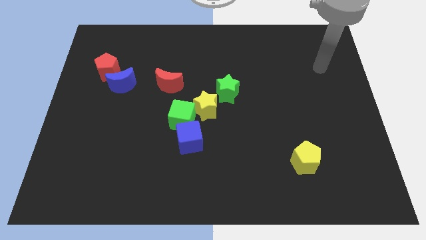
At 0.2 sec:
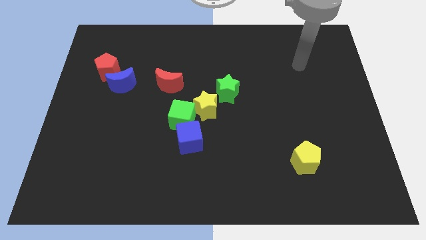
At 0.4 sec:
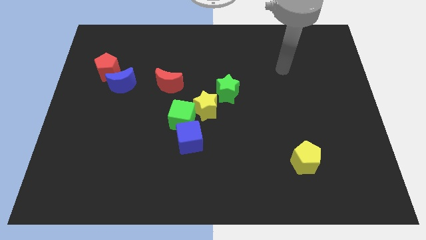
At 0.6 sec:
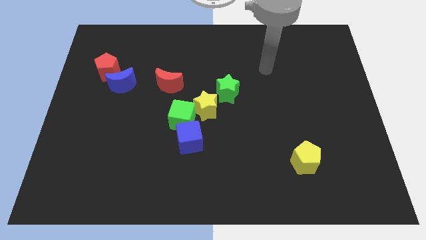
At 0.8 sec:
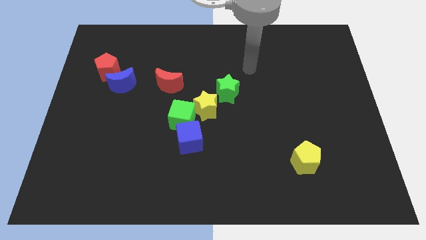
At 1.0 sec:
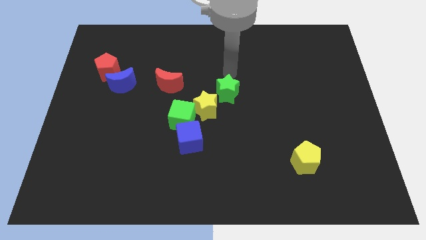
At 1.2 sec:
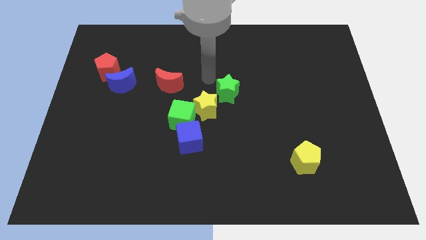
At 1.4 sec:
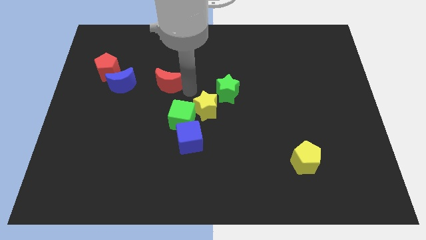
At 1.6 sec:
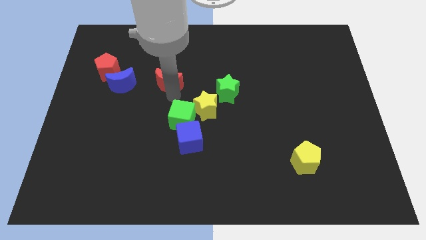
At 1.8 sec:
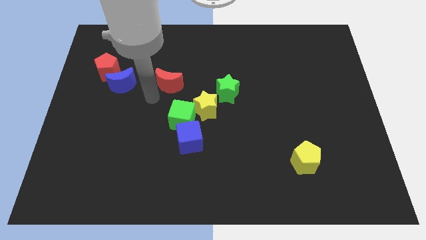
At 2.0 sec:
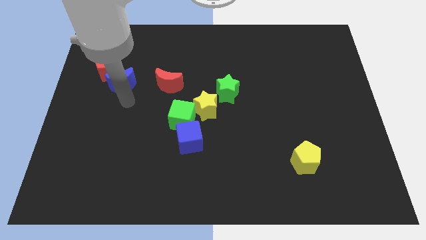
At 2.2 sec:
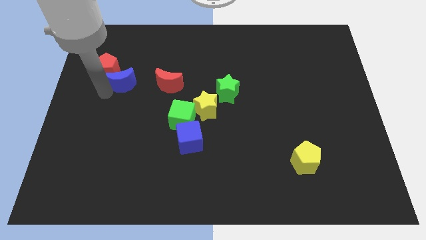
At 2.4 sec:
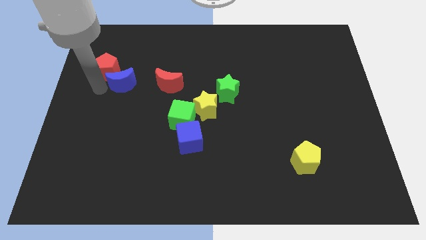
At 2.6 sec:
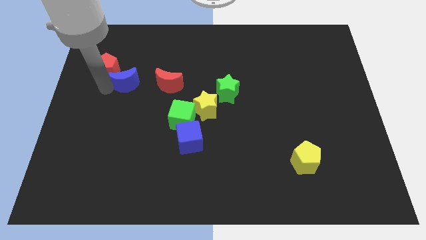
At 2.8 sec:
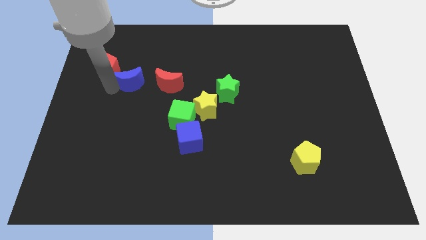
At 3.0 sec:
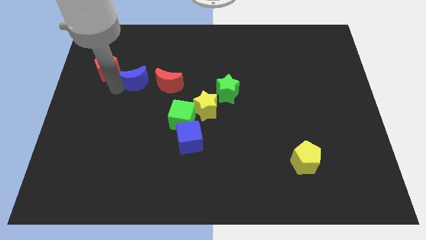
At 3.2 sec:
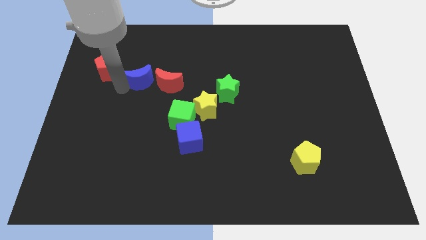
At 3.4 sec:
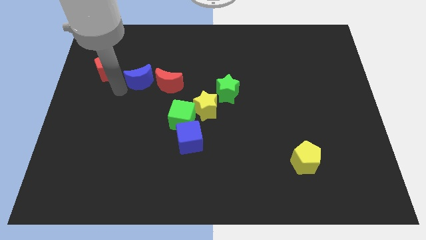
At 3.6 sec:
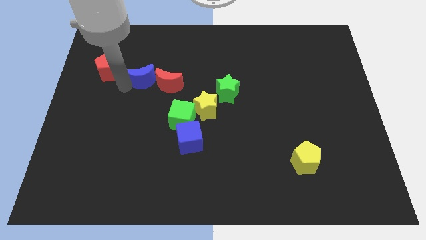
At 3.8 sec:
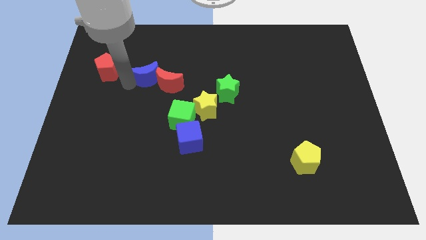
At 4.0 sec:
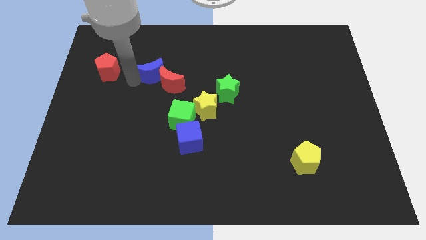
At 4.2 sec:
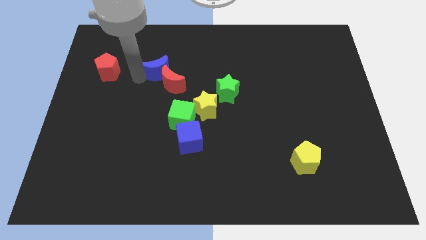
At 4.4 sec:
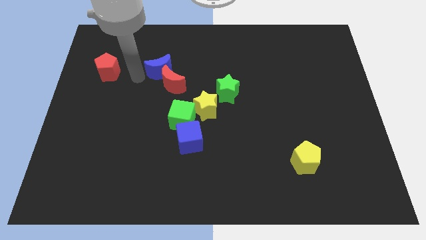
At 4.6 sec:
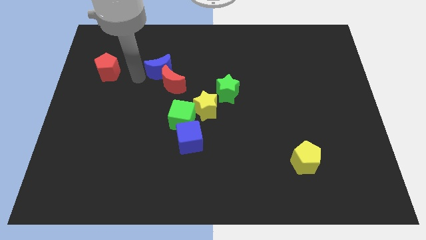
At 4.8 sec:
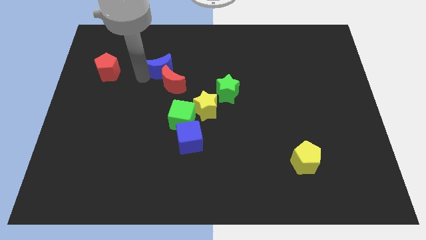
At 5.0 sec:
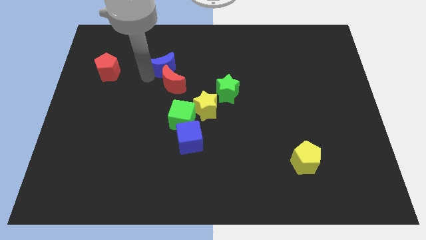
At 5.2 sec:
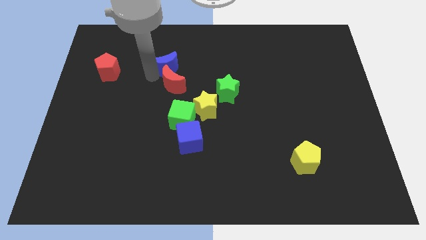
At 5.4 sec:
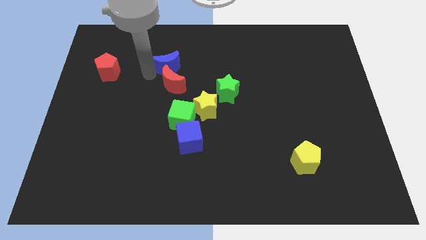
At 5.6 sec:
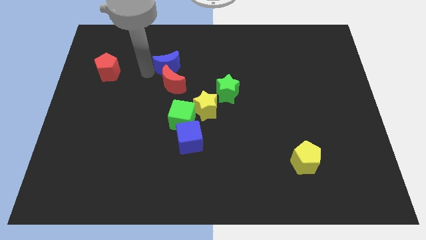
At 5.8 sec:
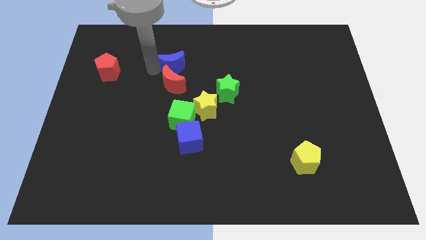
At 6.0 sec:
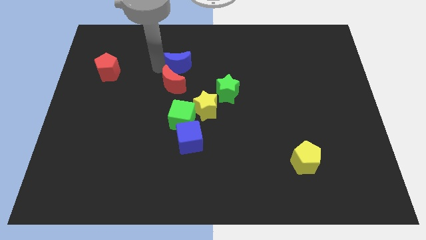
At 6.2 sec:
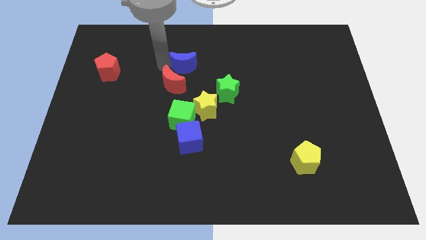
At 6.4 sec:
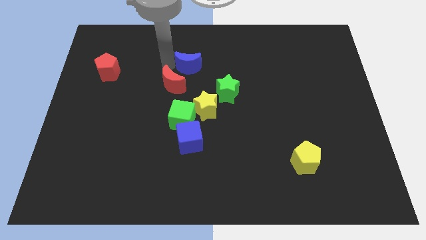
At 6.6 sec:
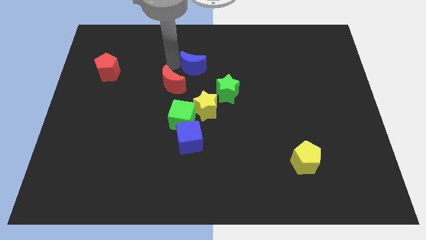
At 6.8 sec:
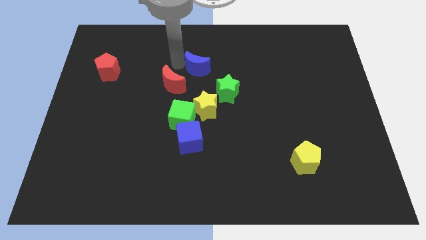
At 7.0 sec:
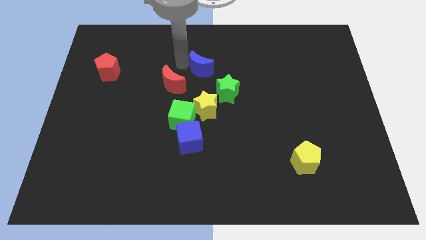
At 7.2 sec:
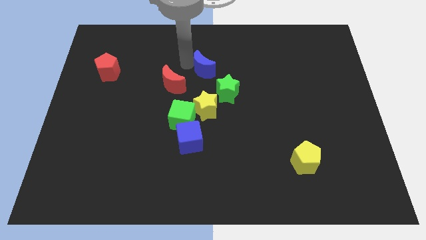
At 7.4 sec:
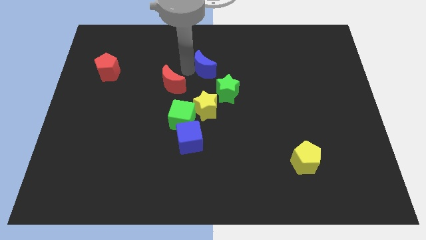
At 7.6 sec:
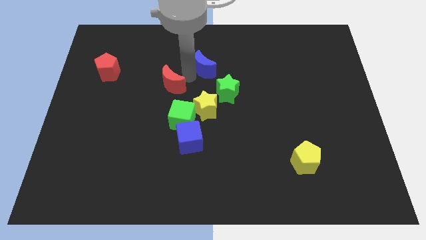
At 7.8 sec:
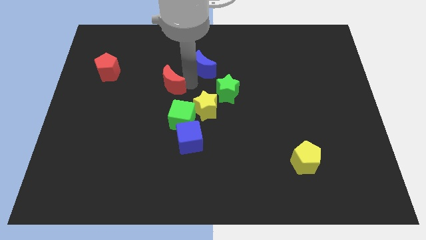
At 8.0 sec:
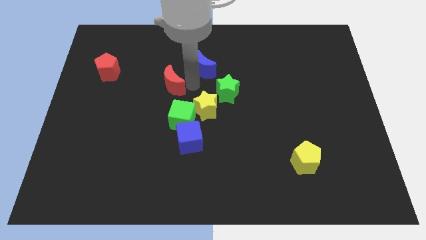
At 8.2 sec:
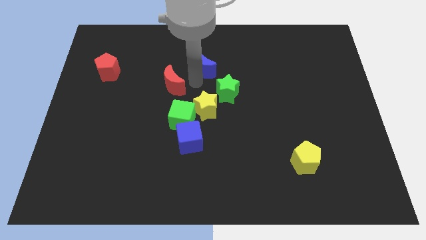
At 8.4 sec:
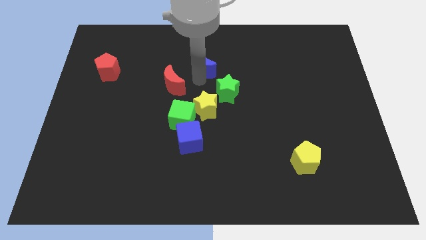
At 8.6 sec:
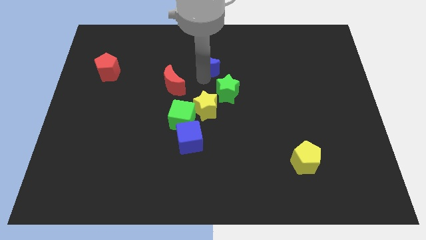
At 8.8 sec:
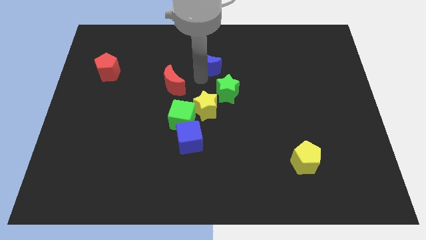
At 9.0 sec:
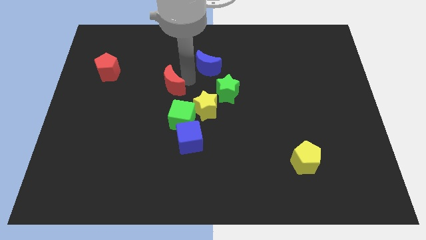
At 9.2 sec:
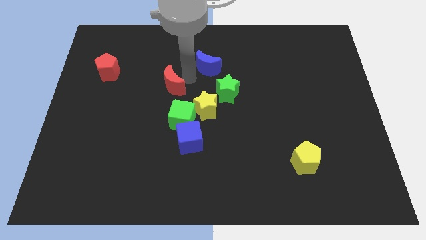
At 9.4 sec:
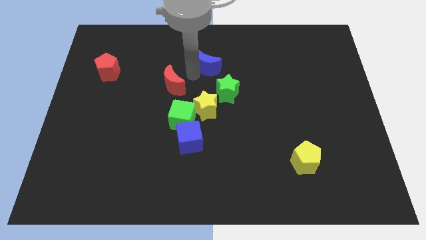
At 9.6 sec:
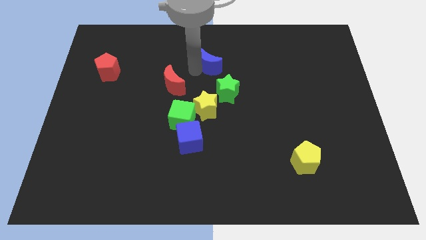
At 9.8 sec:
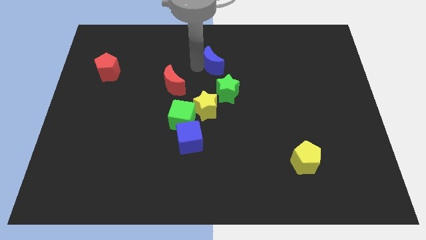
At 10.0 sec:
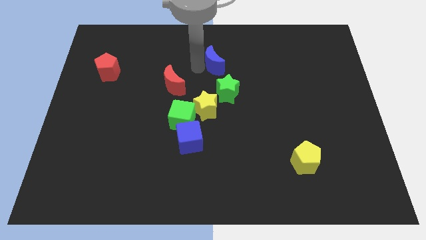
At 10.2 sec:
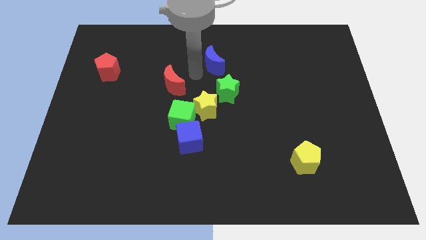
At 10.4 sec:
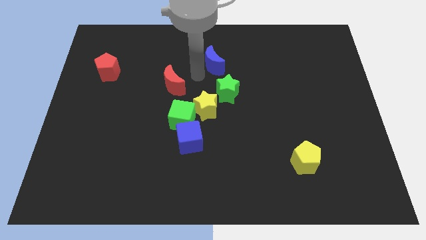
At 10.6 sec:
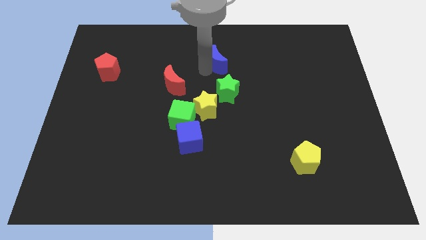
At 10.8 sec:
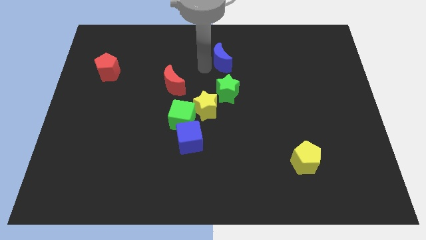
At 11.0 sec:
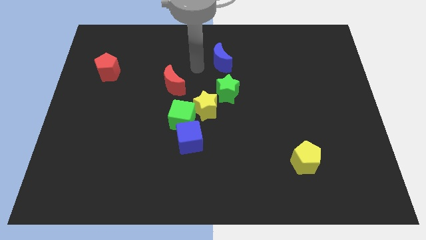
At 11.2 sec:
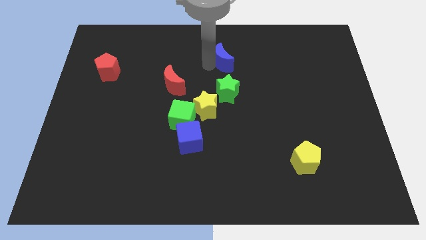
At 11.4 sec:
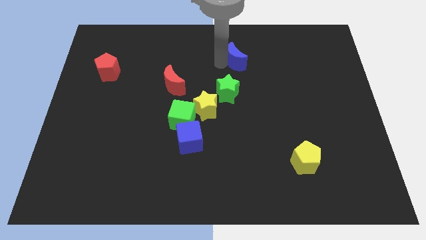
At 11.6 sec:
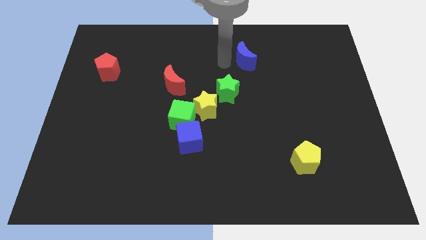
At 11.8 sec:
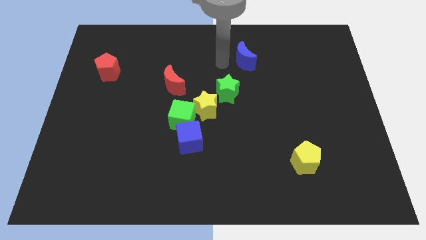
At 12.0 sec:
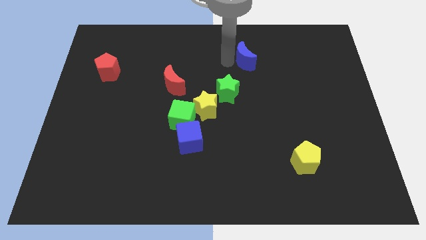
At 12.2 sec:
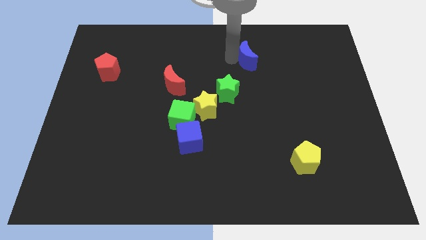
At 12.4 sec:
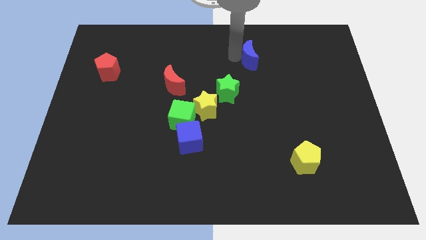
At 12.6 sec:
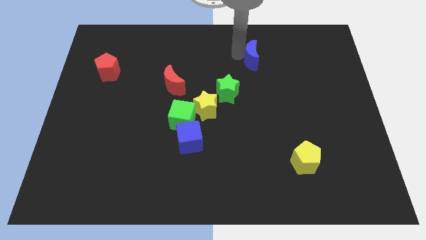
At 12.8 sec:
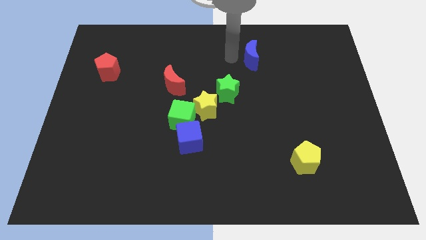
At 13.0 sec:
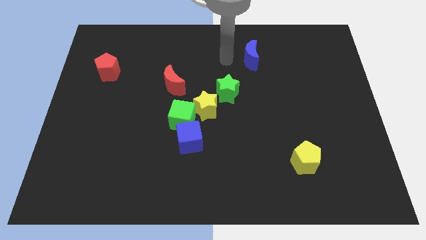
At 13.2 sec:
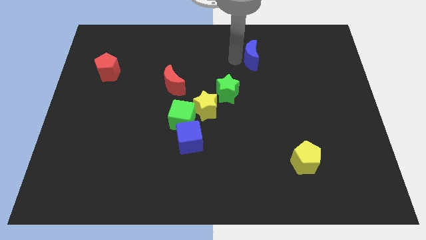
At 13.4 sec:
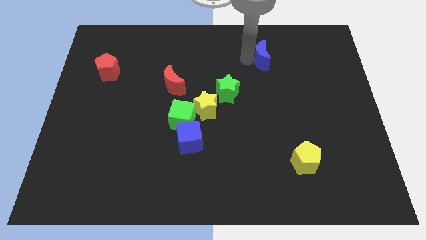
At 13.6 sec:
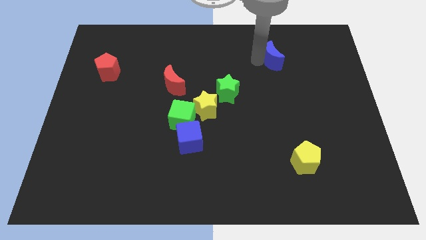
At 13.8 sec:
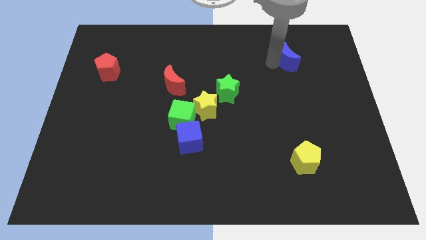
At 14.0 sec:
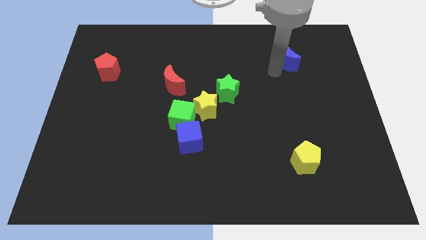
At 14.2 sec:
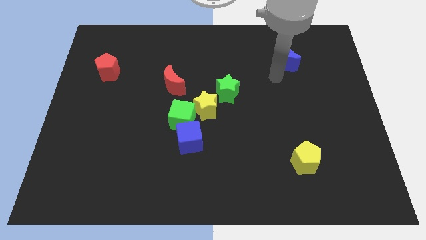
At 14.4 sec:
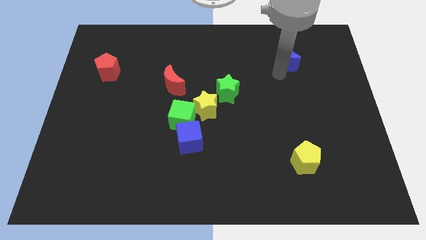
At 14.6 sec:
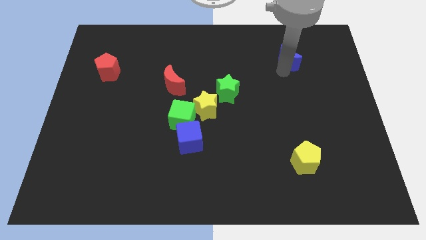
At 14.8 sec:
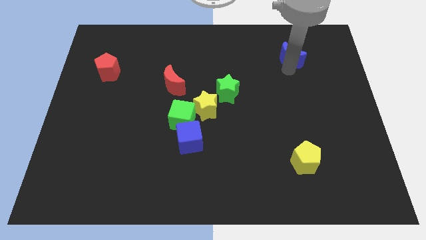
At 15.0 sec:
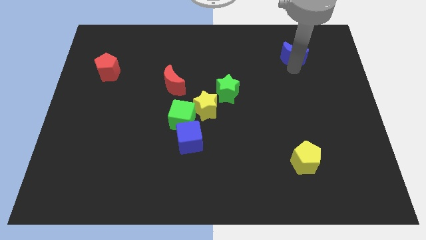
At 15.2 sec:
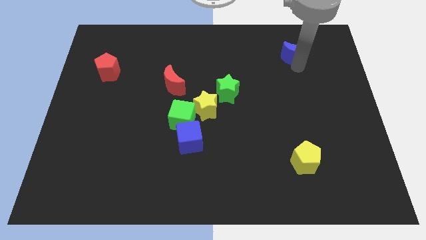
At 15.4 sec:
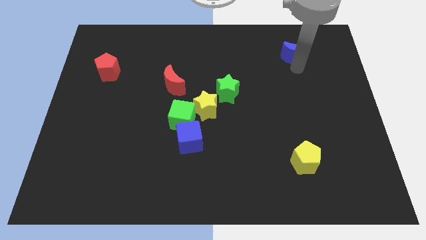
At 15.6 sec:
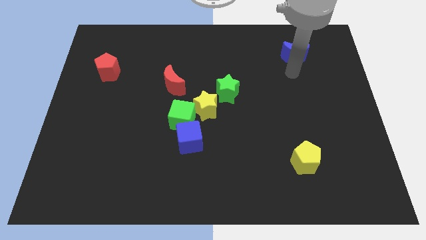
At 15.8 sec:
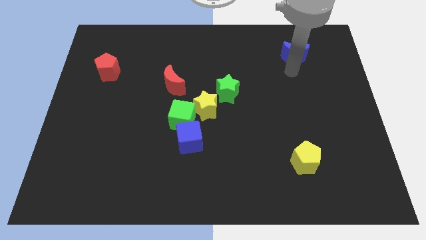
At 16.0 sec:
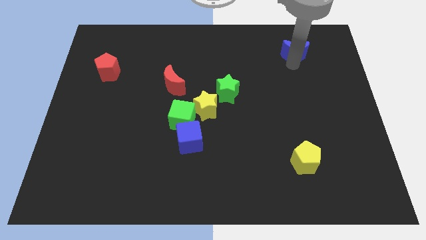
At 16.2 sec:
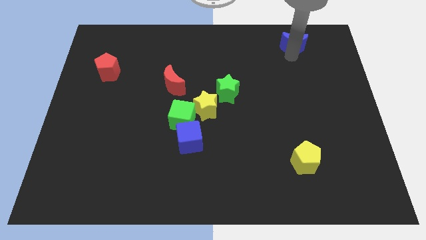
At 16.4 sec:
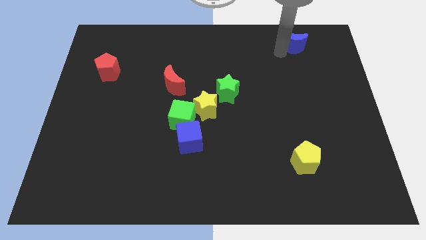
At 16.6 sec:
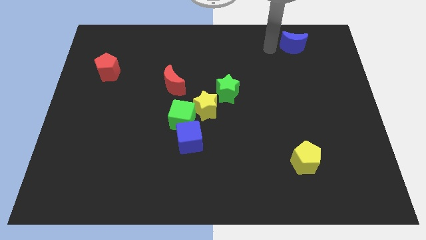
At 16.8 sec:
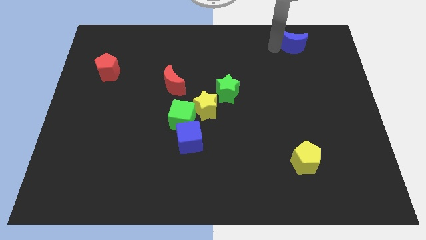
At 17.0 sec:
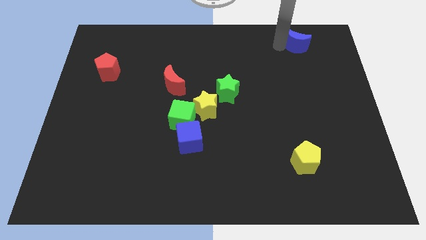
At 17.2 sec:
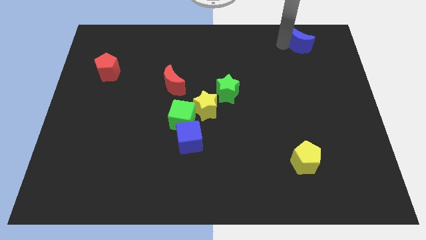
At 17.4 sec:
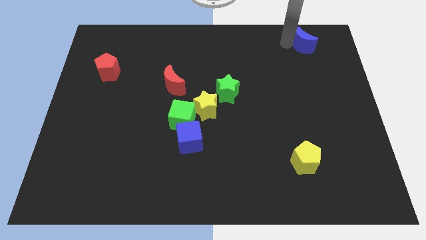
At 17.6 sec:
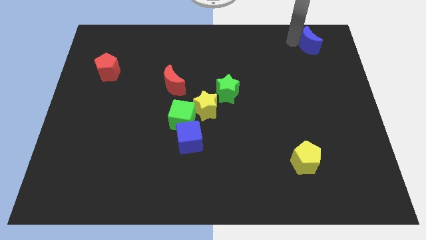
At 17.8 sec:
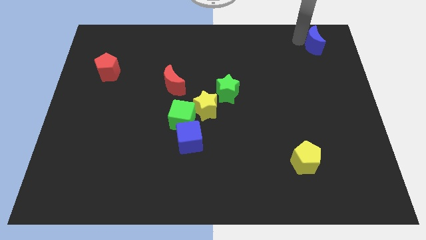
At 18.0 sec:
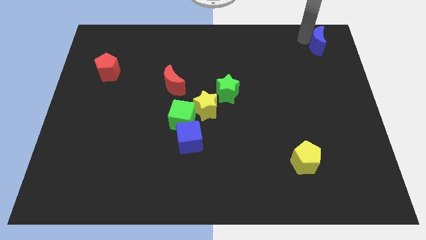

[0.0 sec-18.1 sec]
slide the blue moon to the upper right corner
